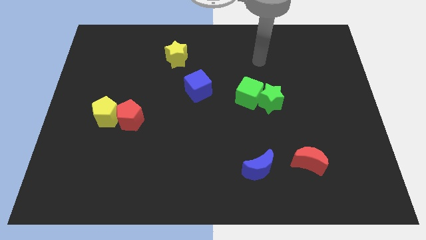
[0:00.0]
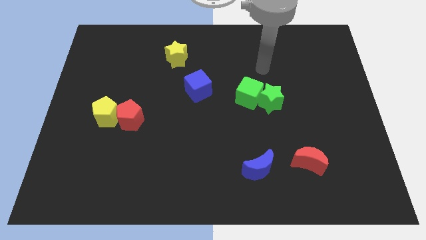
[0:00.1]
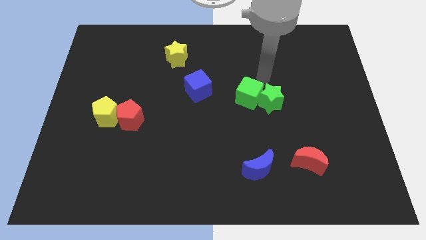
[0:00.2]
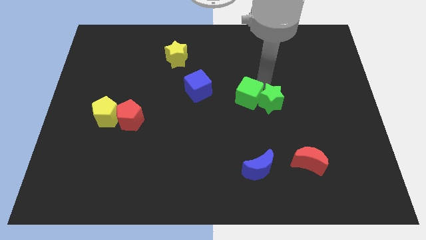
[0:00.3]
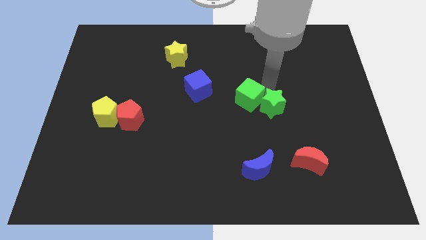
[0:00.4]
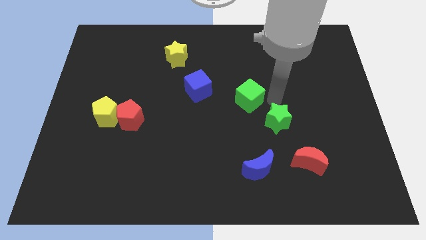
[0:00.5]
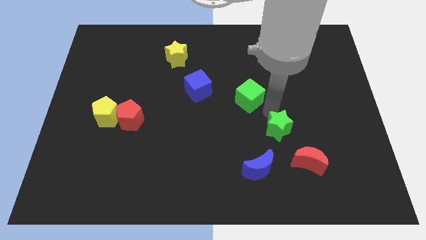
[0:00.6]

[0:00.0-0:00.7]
separate the green cube from the green star

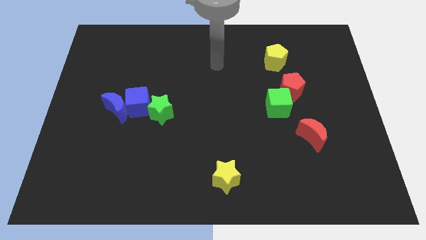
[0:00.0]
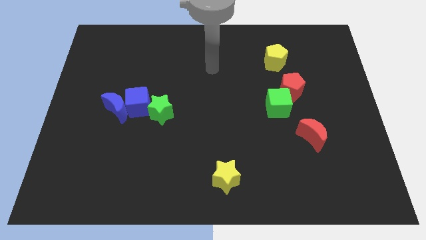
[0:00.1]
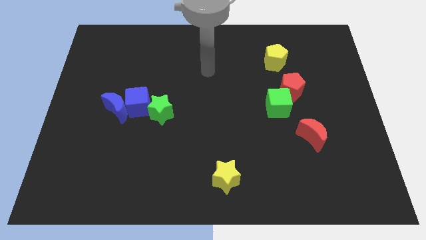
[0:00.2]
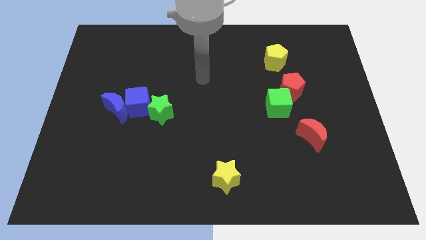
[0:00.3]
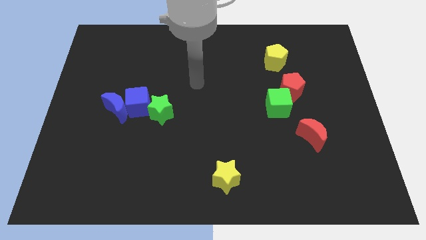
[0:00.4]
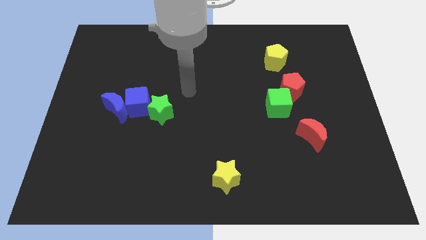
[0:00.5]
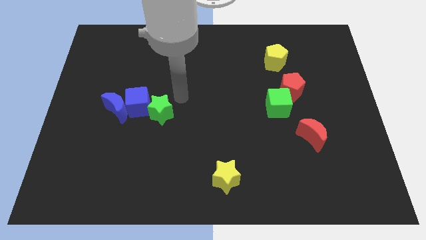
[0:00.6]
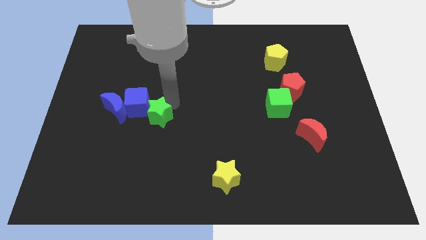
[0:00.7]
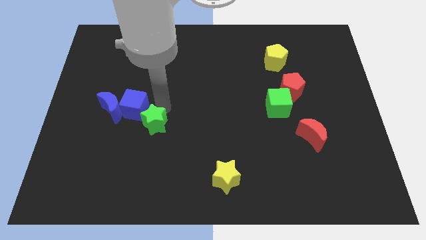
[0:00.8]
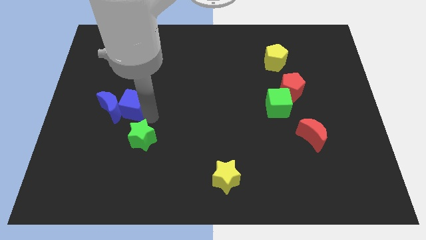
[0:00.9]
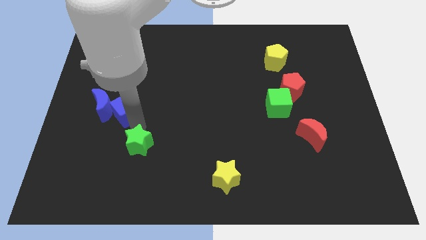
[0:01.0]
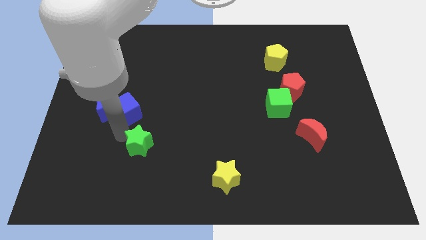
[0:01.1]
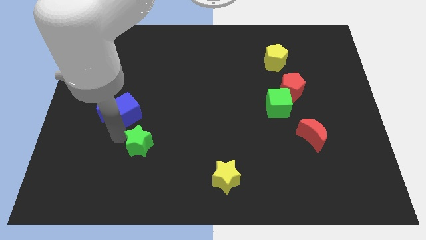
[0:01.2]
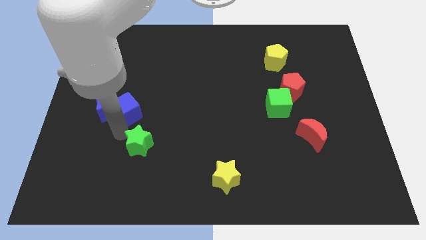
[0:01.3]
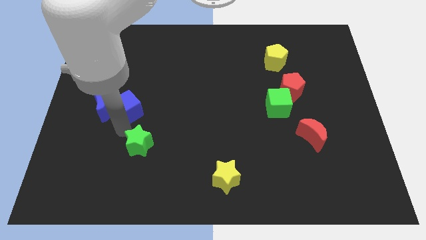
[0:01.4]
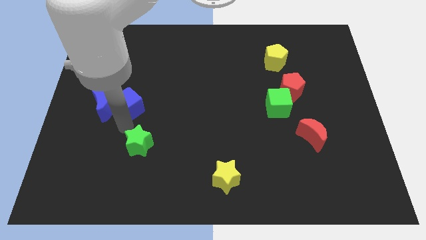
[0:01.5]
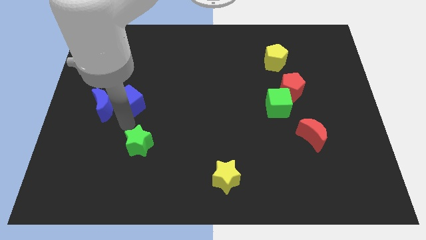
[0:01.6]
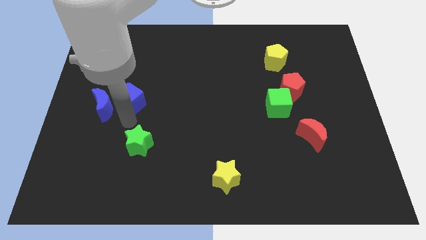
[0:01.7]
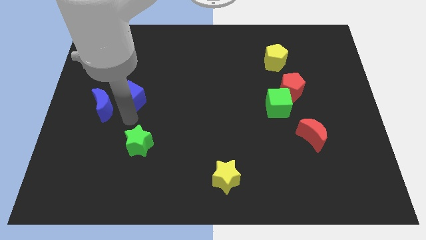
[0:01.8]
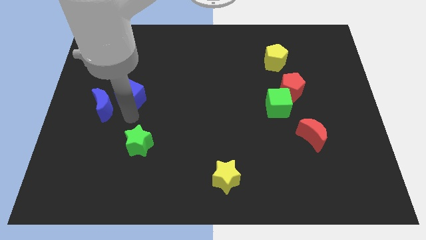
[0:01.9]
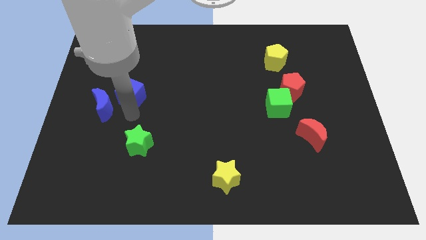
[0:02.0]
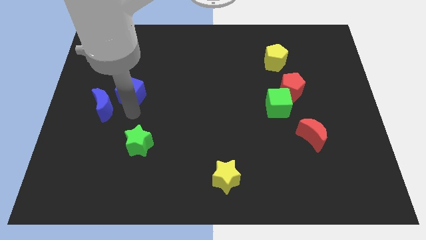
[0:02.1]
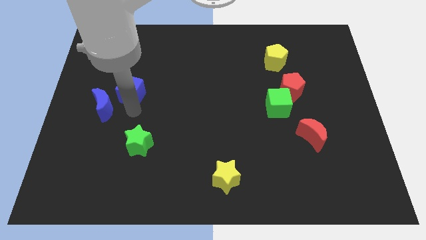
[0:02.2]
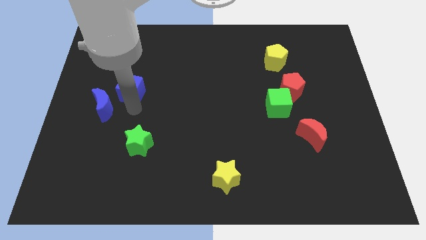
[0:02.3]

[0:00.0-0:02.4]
separate the blue cube from the blue moon and green star

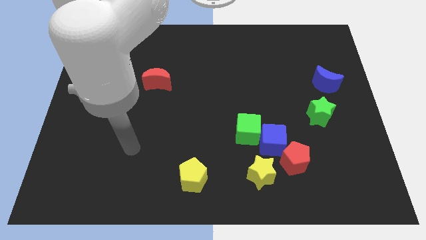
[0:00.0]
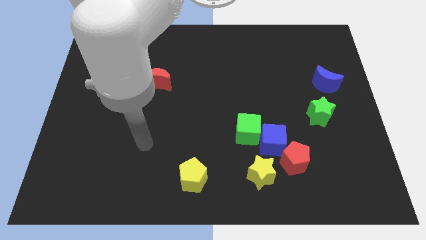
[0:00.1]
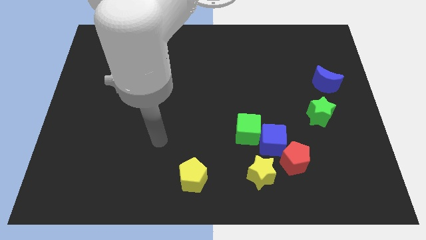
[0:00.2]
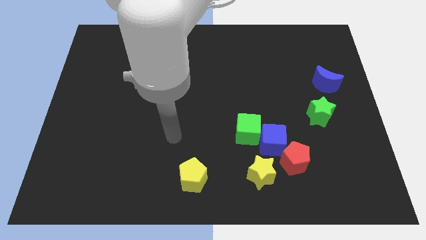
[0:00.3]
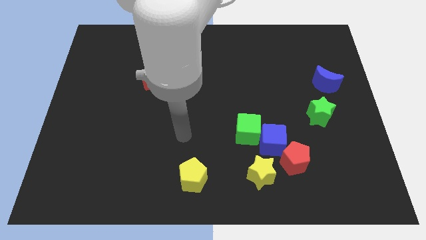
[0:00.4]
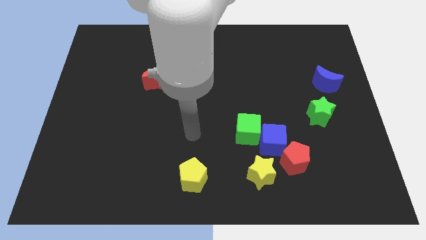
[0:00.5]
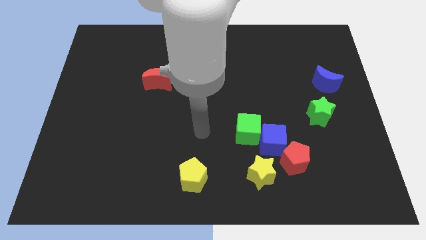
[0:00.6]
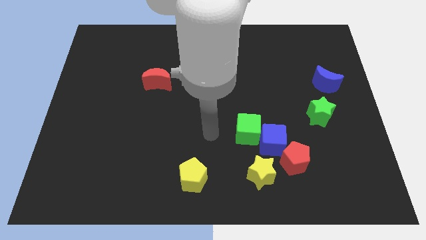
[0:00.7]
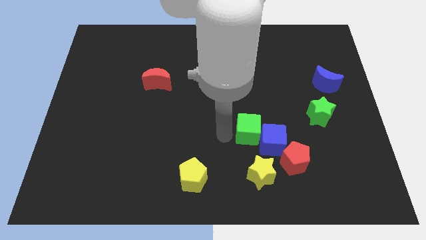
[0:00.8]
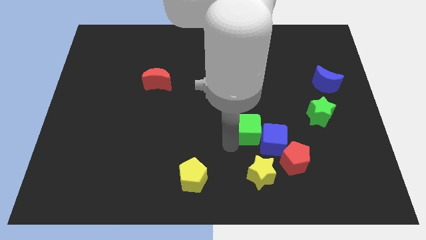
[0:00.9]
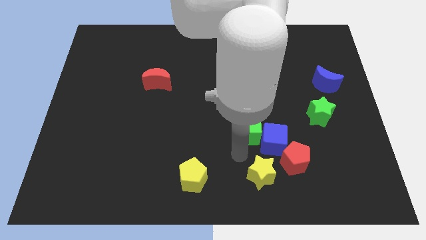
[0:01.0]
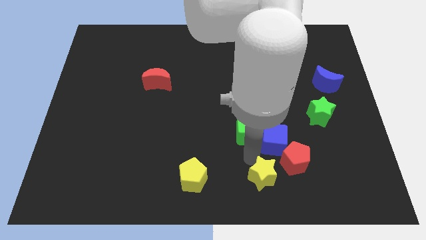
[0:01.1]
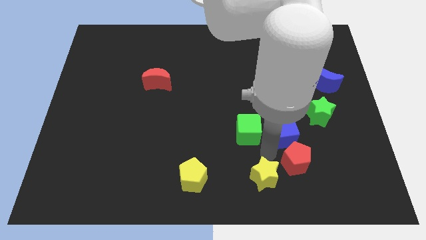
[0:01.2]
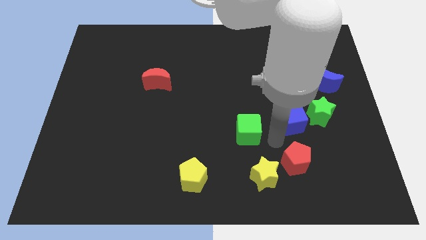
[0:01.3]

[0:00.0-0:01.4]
pull the green cube apart from the blue cube

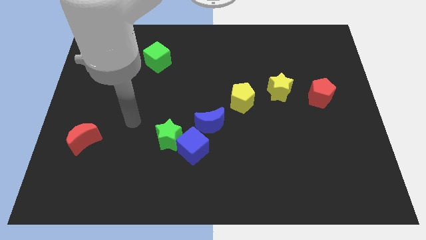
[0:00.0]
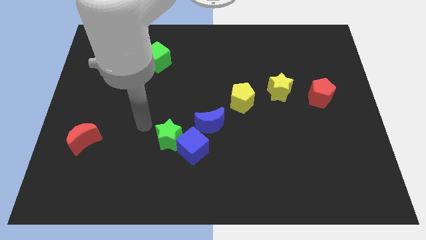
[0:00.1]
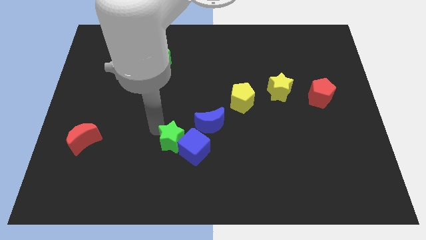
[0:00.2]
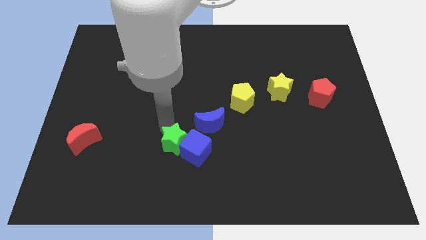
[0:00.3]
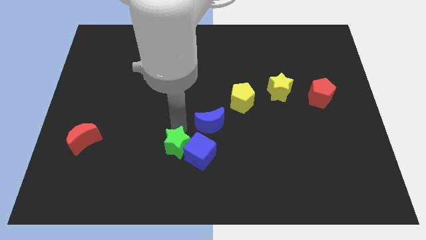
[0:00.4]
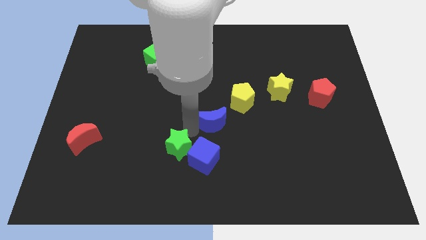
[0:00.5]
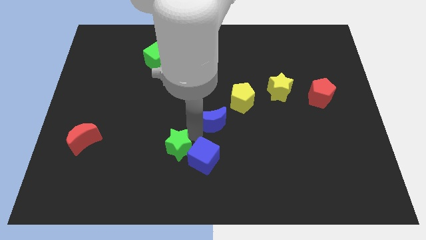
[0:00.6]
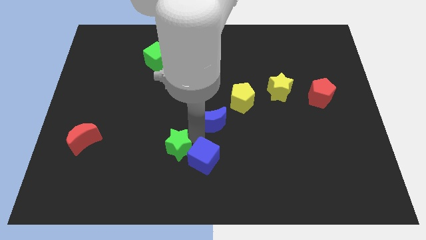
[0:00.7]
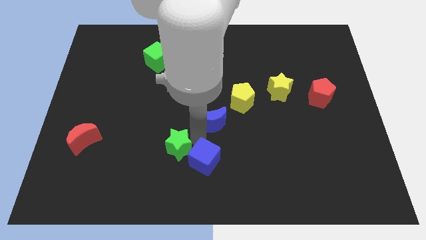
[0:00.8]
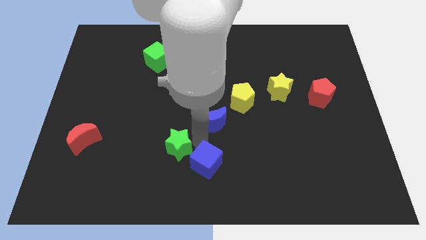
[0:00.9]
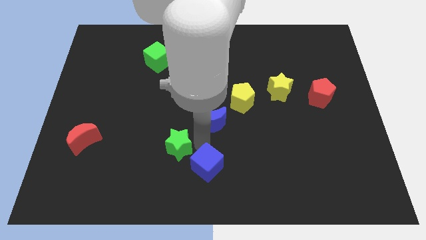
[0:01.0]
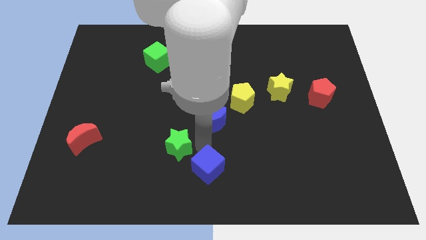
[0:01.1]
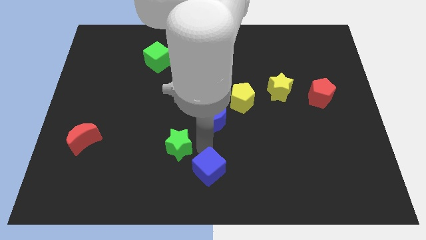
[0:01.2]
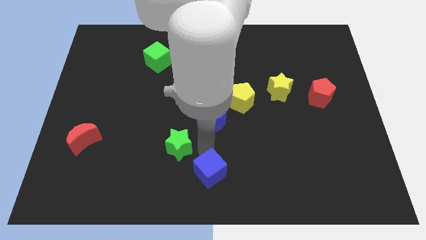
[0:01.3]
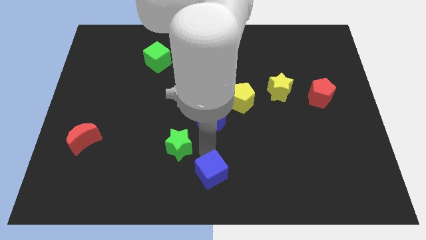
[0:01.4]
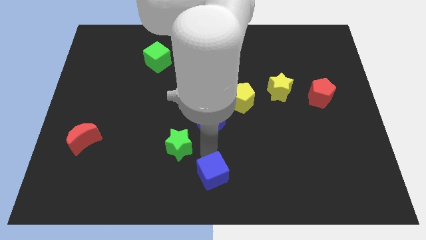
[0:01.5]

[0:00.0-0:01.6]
separate the blue cube from the green star and blue moon

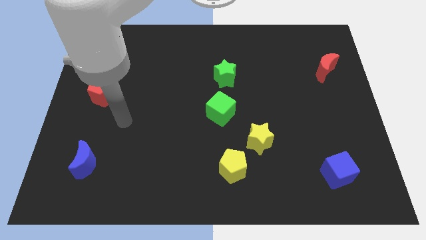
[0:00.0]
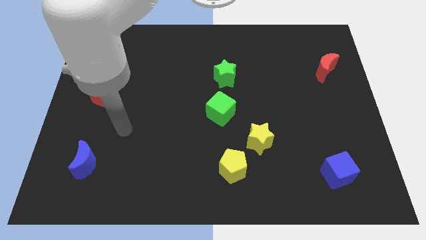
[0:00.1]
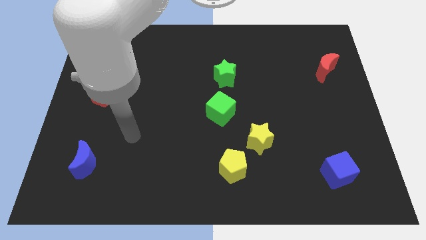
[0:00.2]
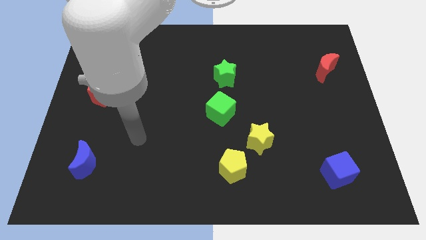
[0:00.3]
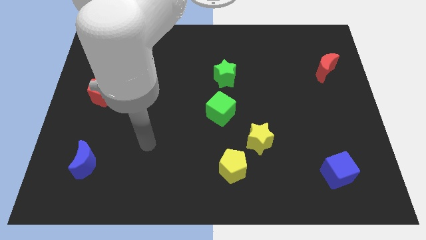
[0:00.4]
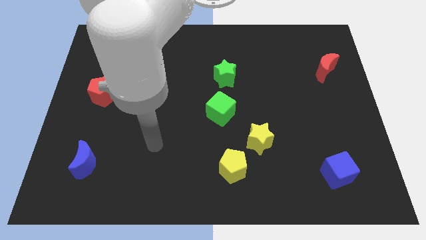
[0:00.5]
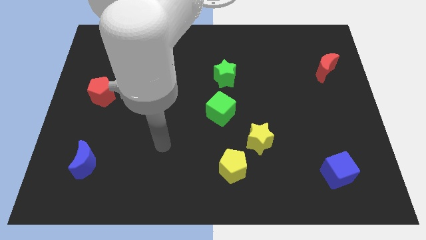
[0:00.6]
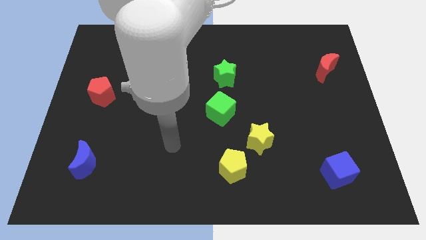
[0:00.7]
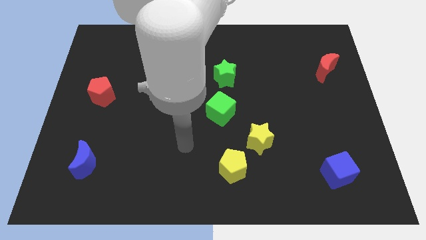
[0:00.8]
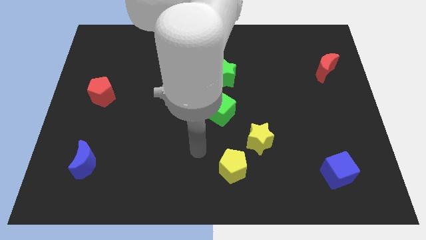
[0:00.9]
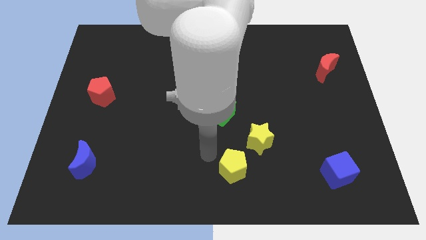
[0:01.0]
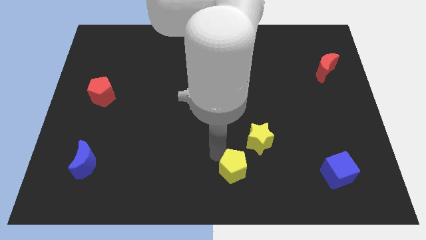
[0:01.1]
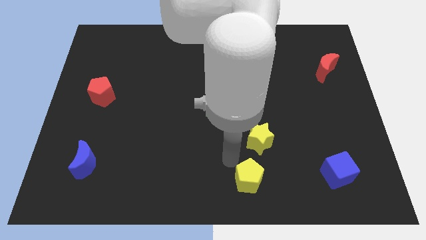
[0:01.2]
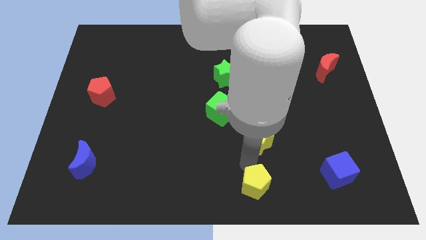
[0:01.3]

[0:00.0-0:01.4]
pull the yellow star apart from the yellow pentagon

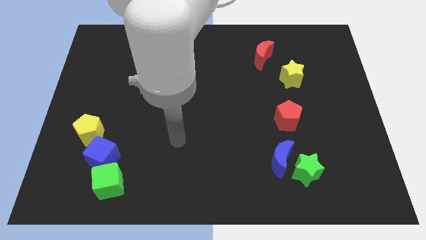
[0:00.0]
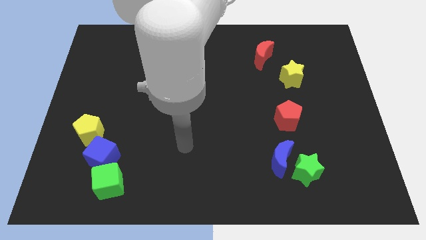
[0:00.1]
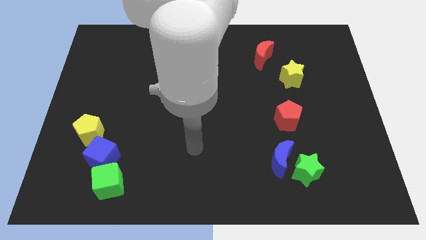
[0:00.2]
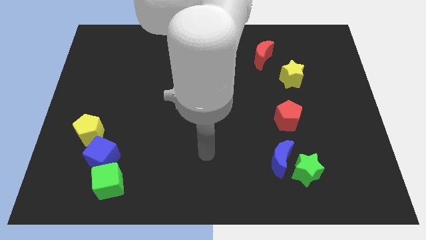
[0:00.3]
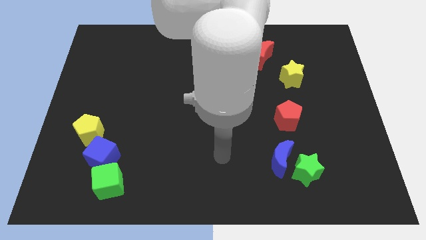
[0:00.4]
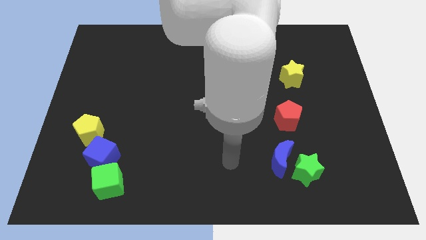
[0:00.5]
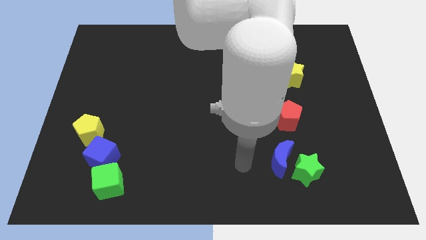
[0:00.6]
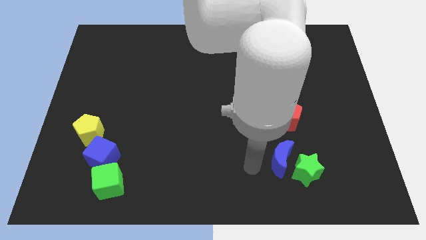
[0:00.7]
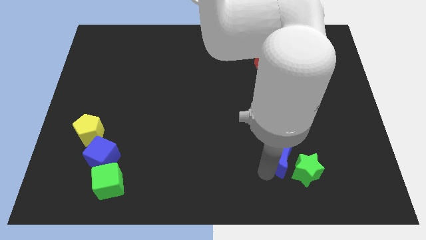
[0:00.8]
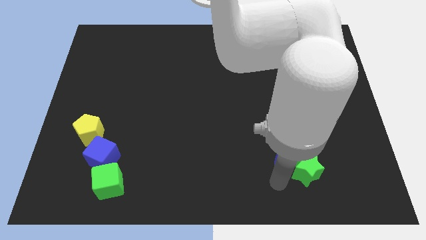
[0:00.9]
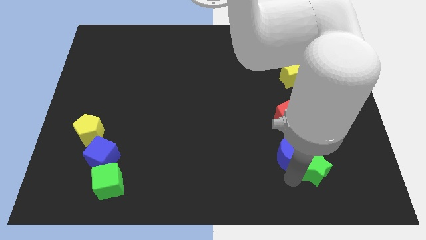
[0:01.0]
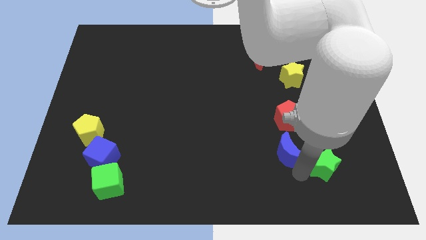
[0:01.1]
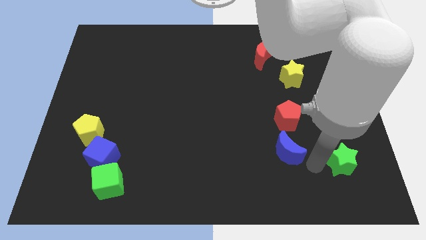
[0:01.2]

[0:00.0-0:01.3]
separate the blue moon from the green star

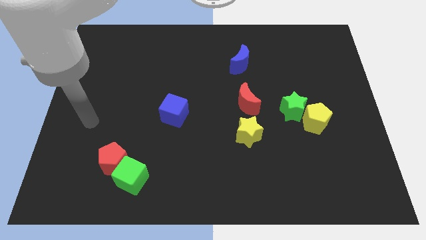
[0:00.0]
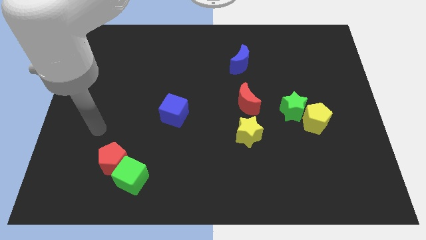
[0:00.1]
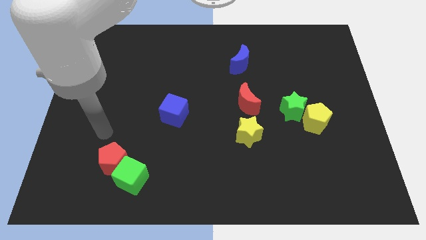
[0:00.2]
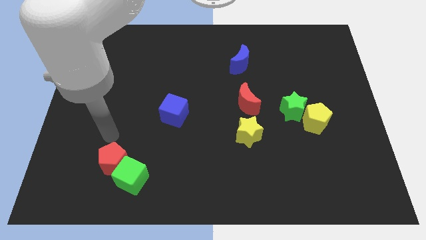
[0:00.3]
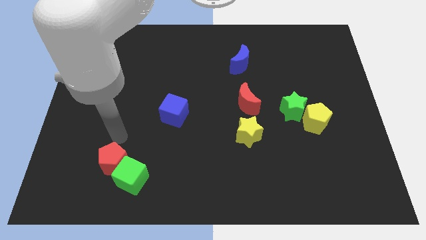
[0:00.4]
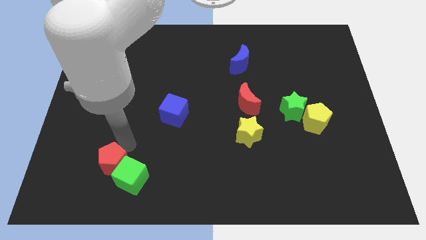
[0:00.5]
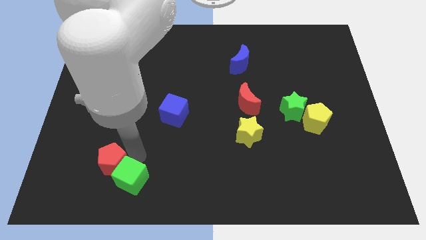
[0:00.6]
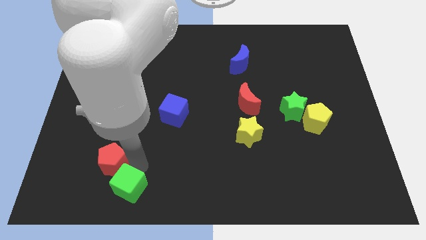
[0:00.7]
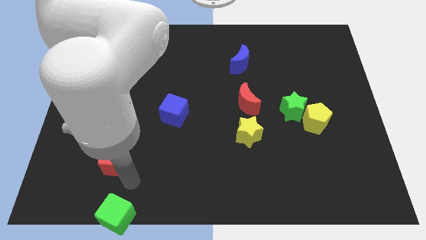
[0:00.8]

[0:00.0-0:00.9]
pull the red pentagon apart from the green cube
